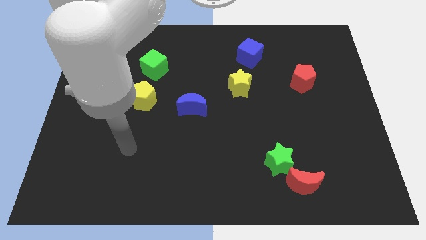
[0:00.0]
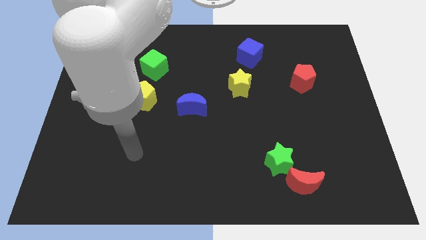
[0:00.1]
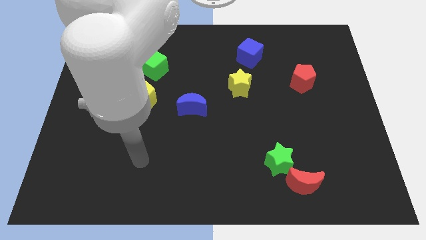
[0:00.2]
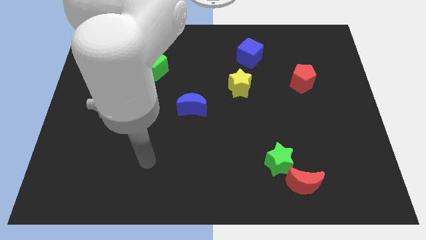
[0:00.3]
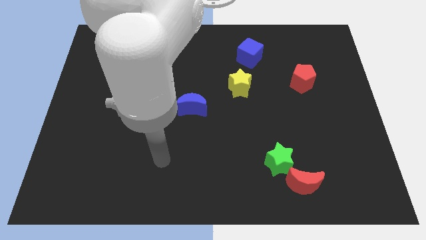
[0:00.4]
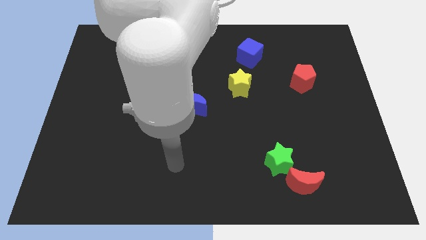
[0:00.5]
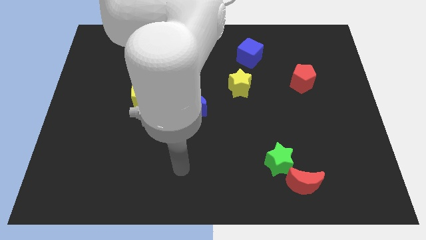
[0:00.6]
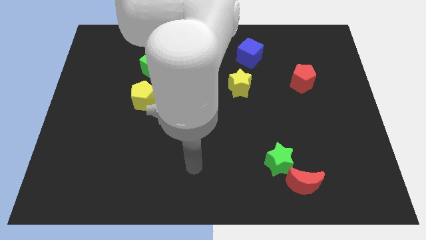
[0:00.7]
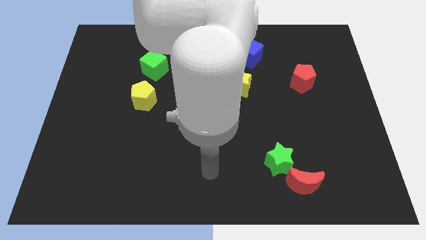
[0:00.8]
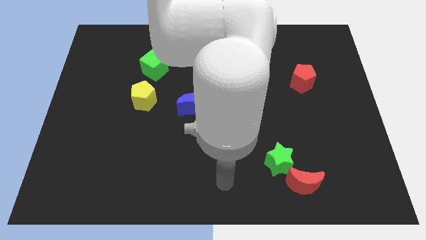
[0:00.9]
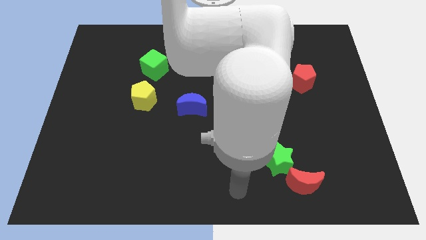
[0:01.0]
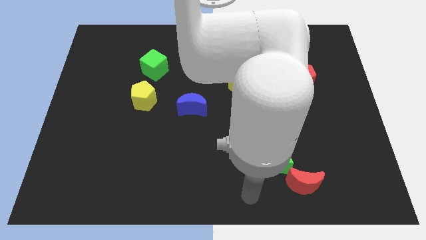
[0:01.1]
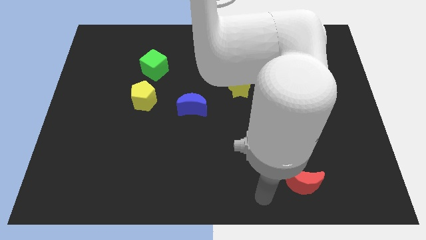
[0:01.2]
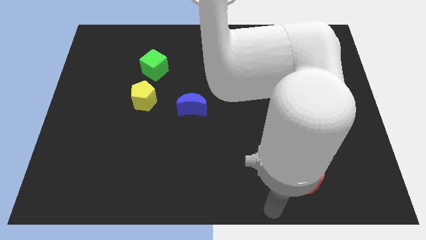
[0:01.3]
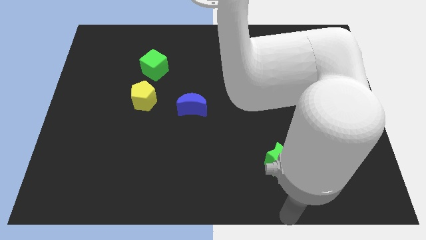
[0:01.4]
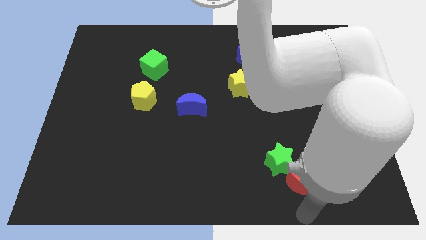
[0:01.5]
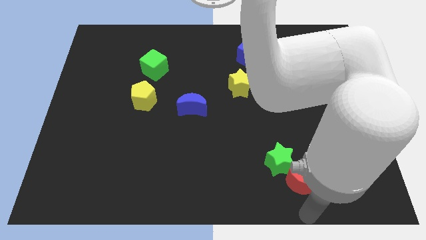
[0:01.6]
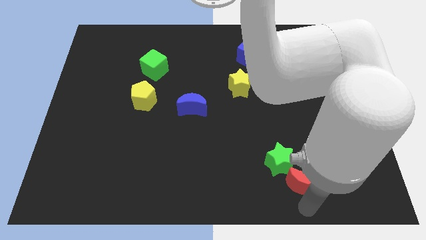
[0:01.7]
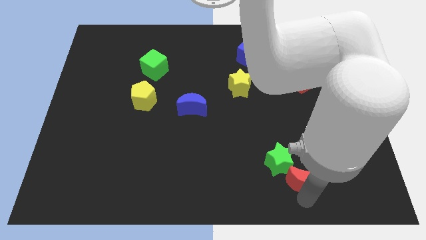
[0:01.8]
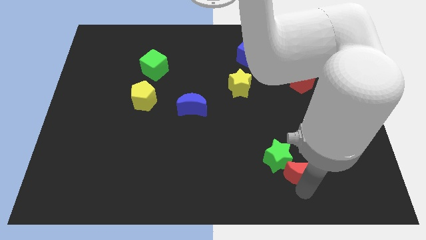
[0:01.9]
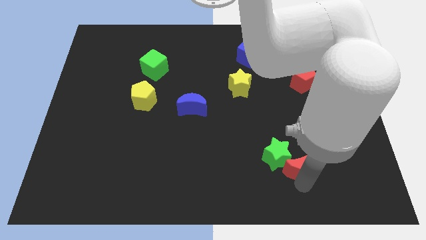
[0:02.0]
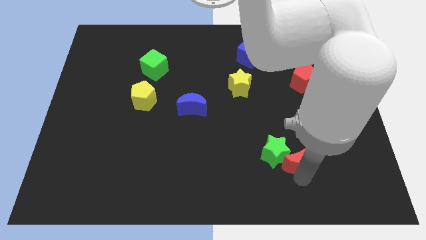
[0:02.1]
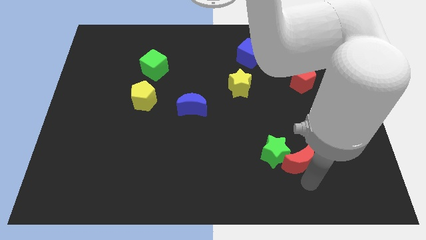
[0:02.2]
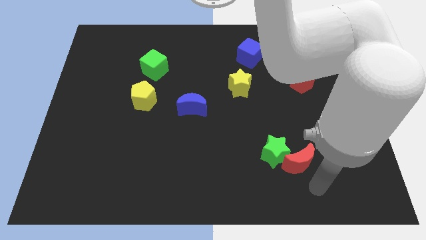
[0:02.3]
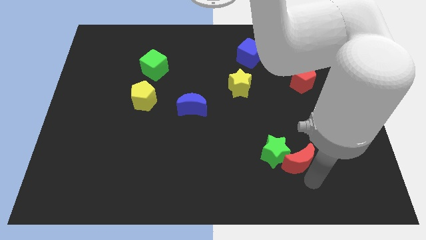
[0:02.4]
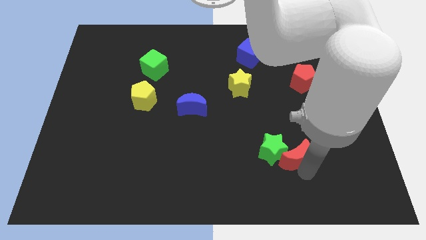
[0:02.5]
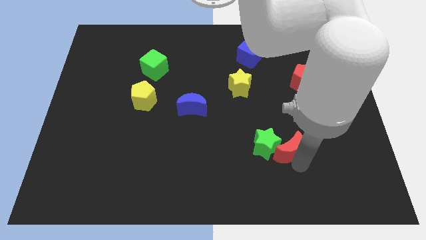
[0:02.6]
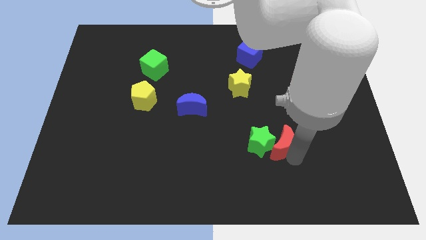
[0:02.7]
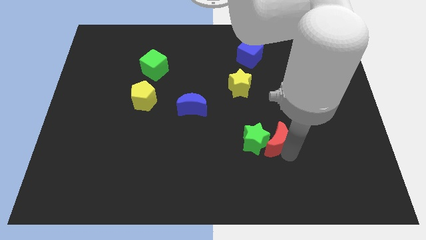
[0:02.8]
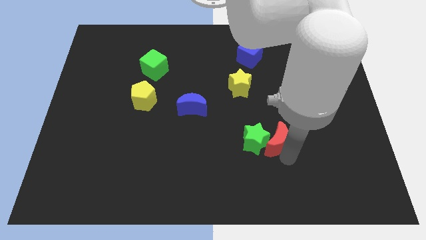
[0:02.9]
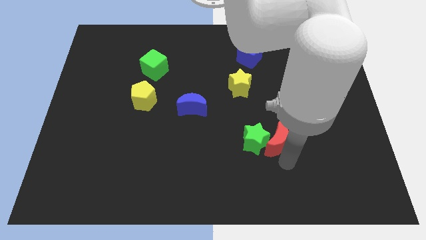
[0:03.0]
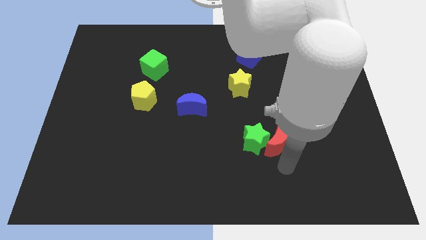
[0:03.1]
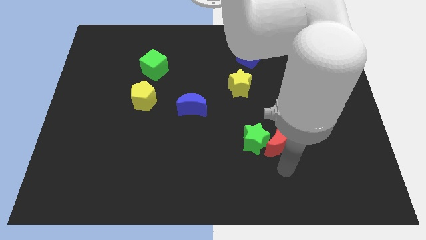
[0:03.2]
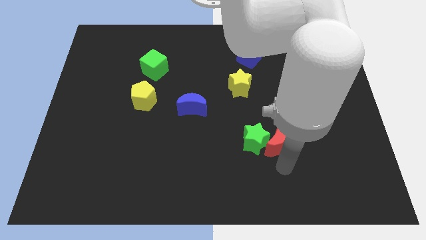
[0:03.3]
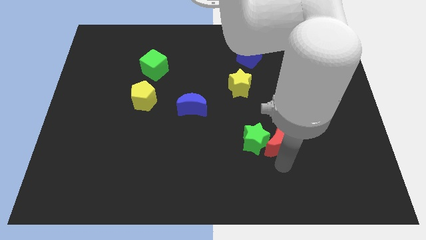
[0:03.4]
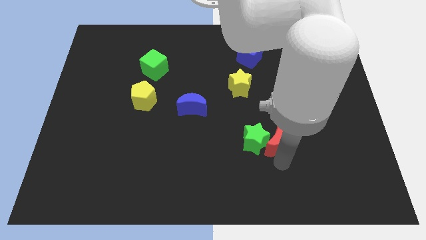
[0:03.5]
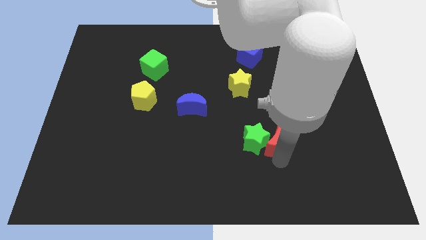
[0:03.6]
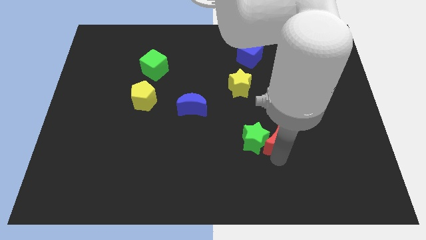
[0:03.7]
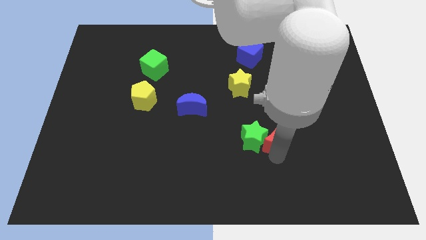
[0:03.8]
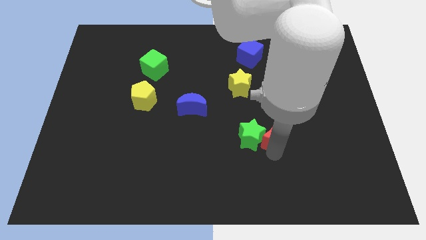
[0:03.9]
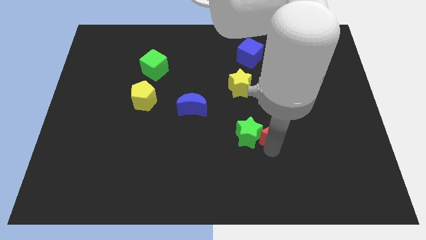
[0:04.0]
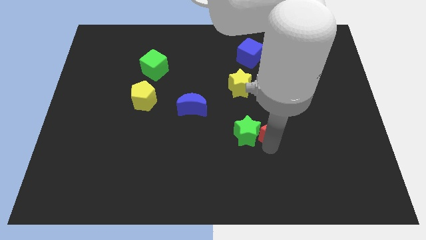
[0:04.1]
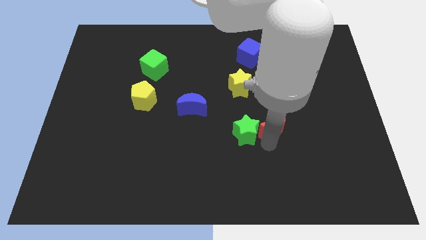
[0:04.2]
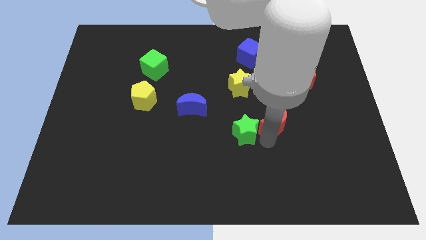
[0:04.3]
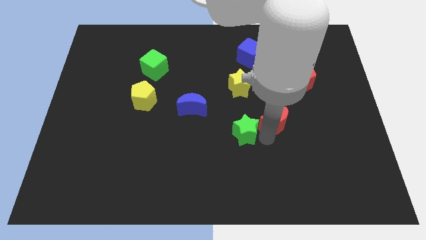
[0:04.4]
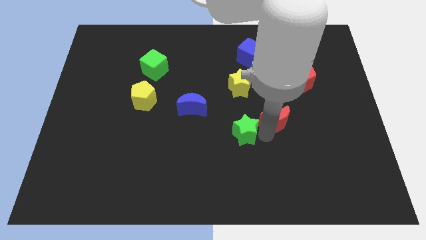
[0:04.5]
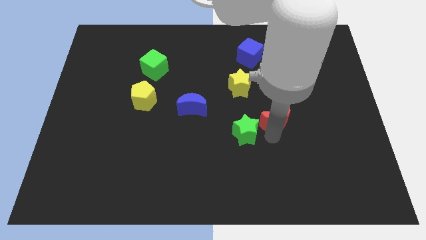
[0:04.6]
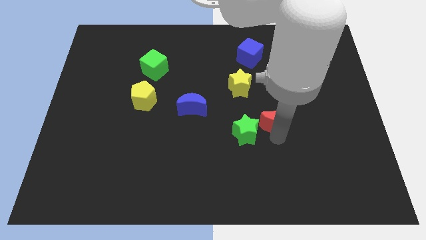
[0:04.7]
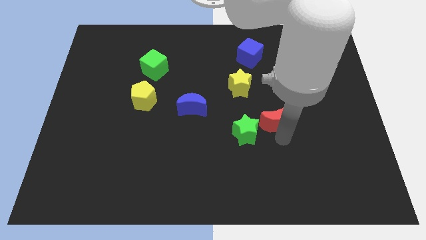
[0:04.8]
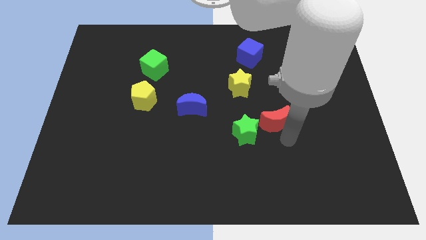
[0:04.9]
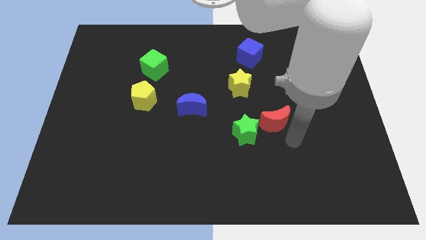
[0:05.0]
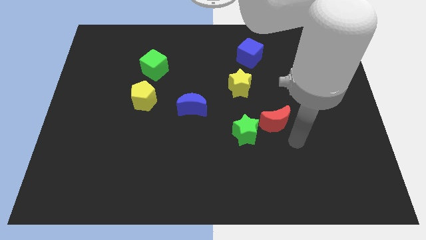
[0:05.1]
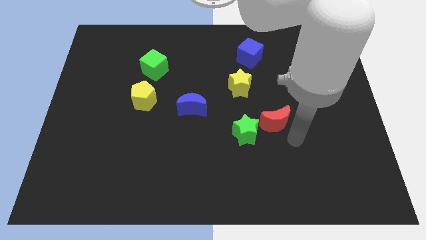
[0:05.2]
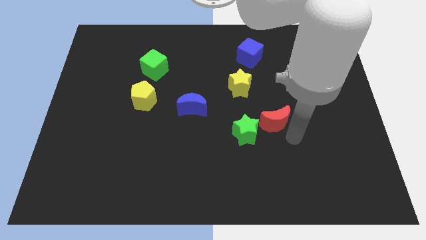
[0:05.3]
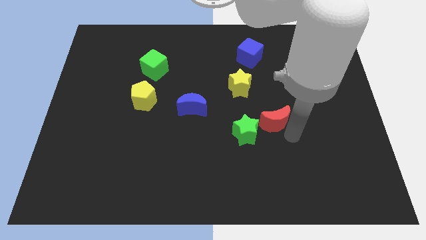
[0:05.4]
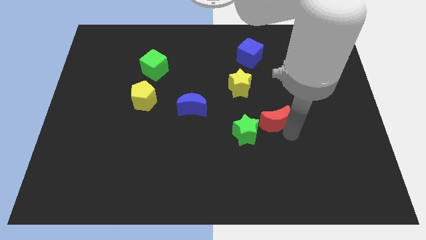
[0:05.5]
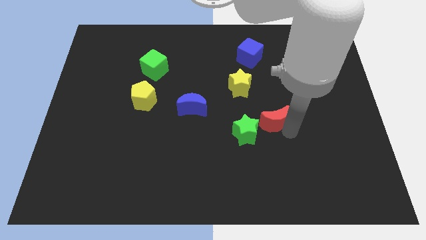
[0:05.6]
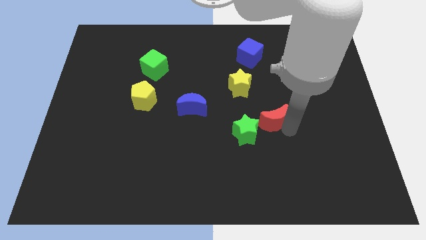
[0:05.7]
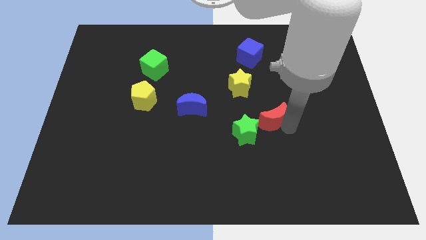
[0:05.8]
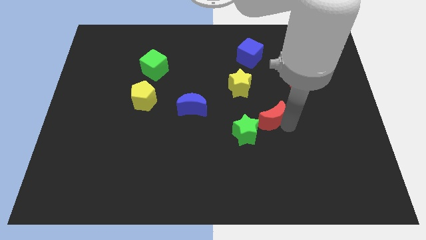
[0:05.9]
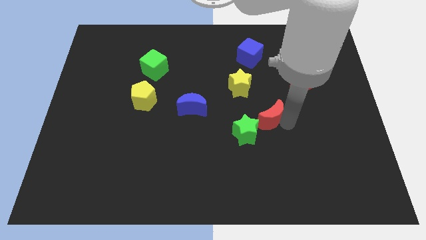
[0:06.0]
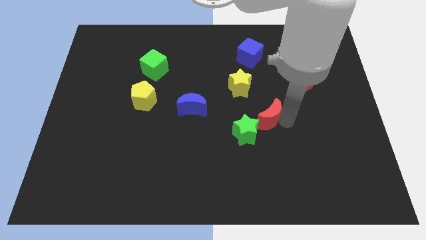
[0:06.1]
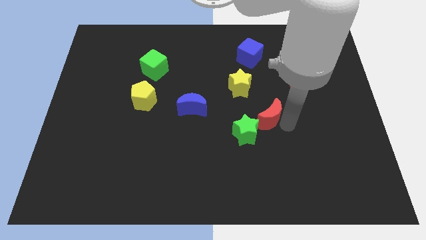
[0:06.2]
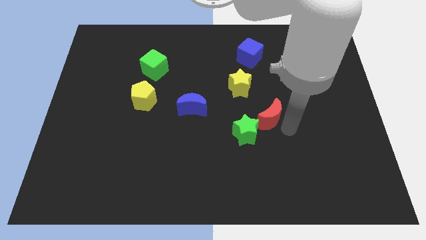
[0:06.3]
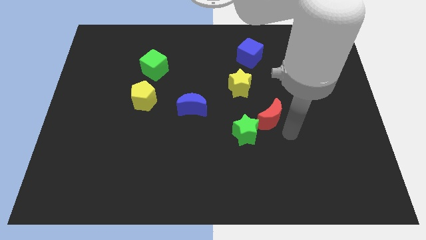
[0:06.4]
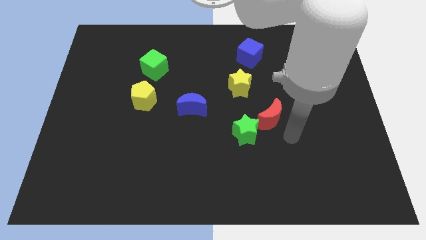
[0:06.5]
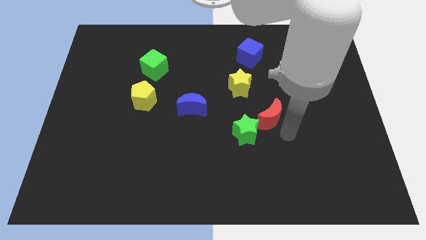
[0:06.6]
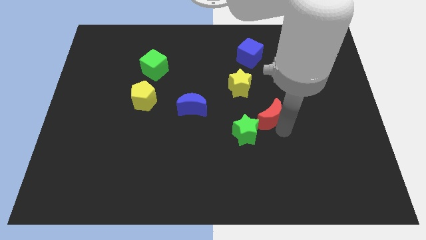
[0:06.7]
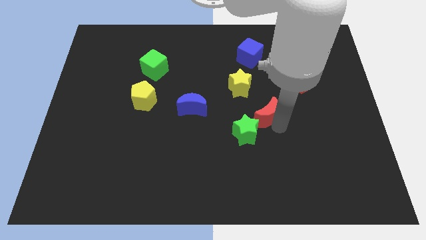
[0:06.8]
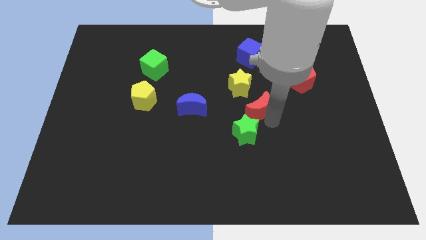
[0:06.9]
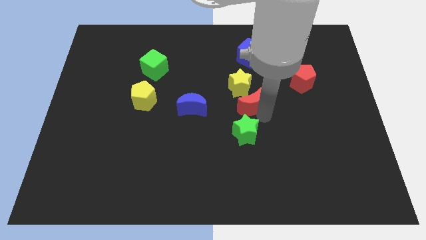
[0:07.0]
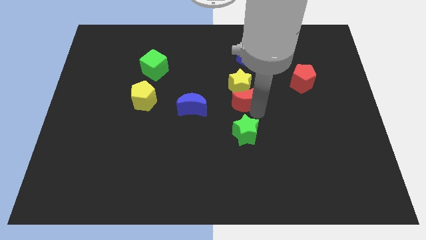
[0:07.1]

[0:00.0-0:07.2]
push the red moon towards the yellow star

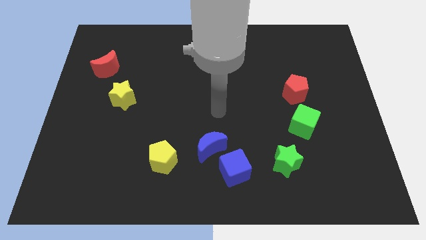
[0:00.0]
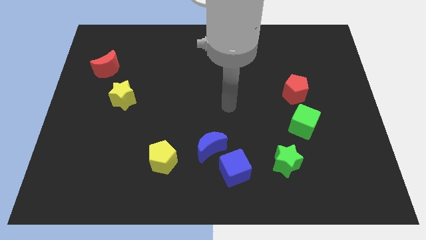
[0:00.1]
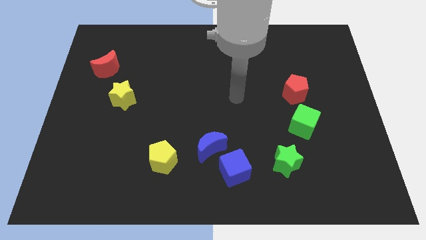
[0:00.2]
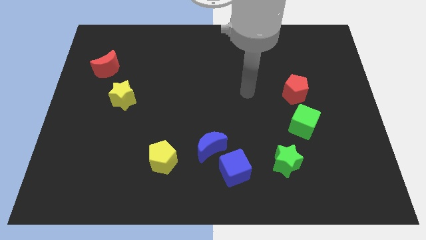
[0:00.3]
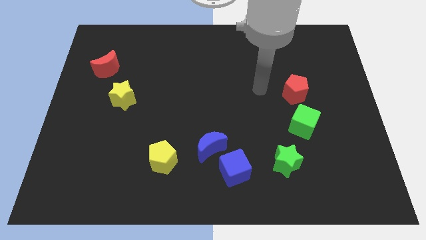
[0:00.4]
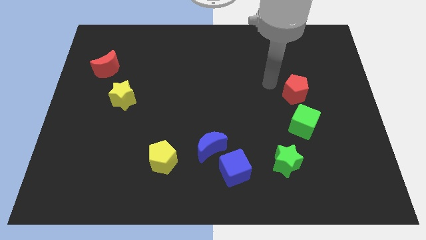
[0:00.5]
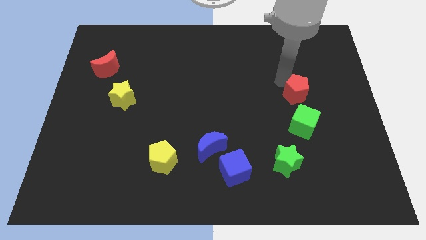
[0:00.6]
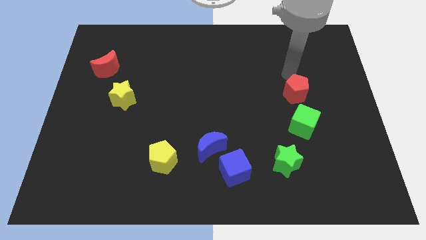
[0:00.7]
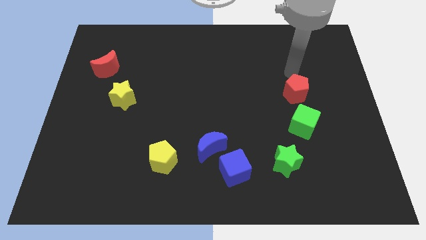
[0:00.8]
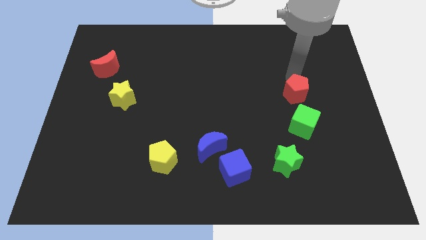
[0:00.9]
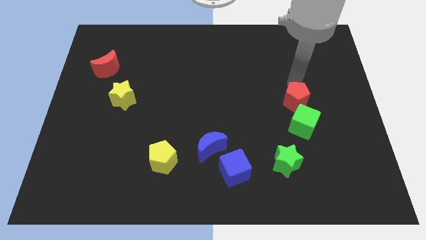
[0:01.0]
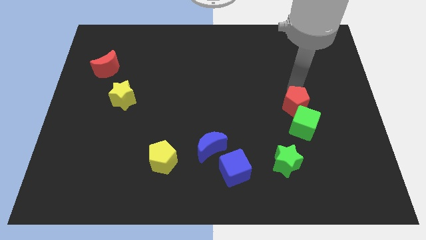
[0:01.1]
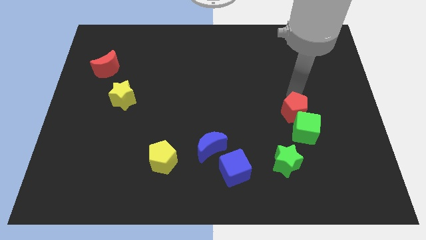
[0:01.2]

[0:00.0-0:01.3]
slide the red pentagon to the green cube
